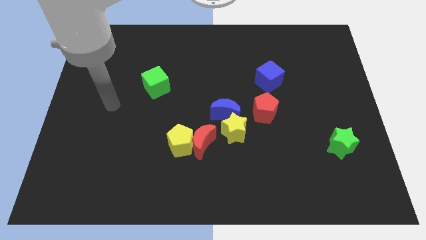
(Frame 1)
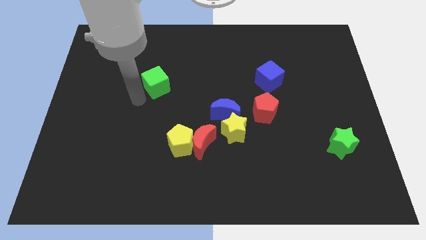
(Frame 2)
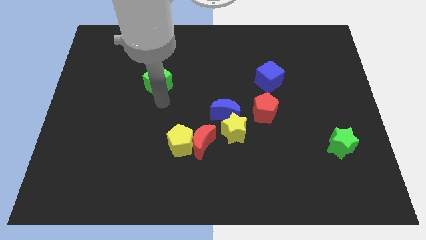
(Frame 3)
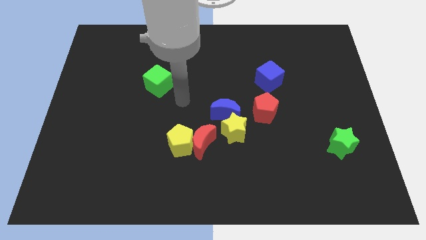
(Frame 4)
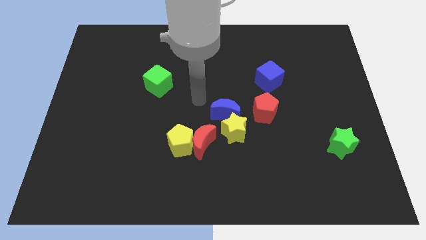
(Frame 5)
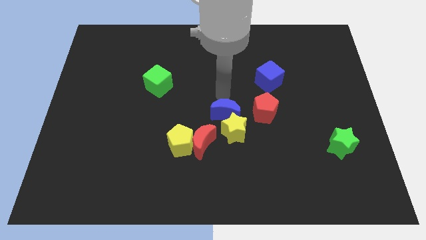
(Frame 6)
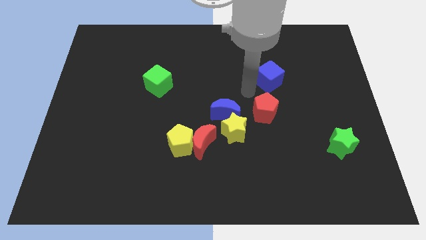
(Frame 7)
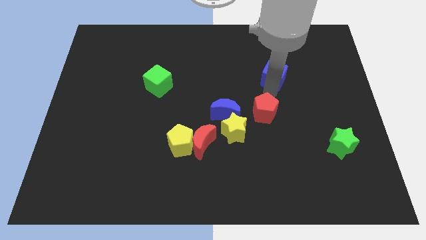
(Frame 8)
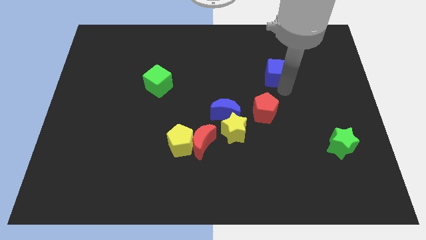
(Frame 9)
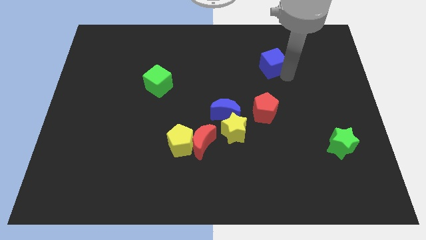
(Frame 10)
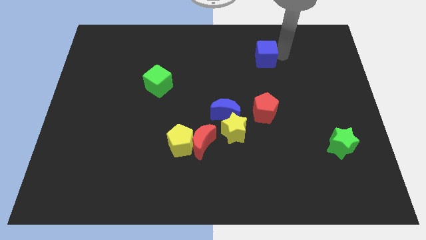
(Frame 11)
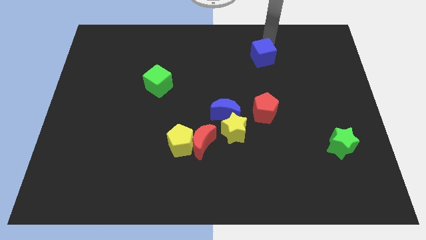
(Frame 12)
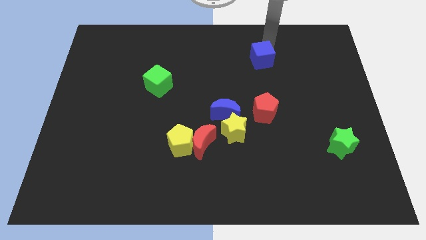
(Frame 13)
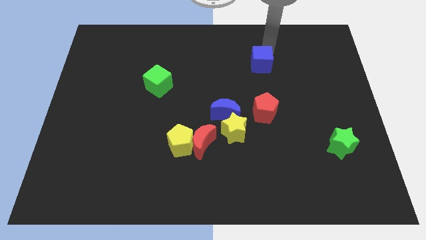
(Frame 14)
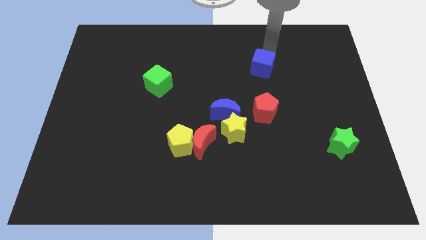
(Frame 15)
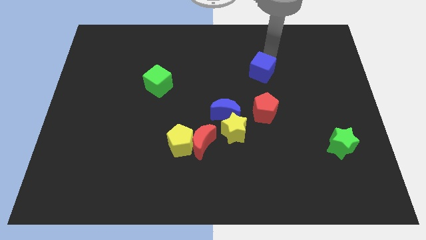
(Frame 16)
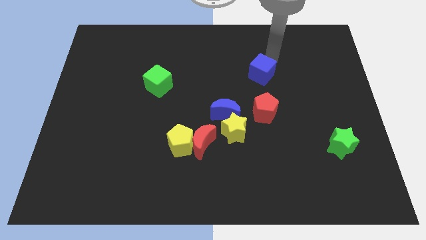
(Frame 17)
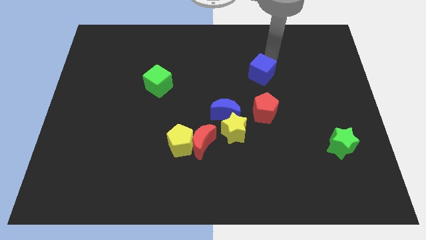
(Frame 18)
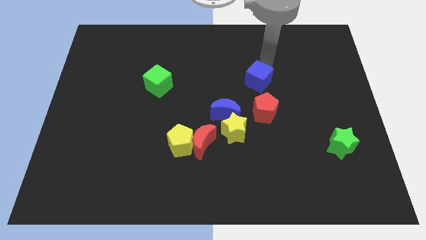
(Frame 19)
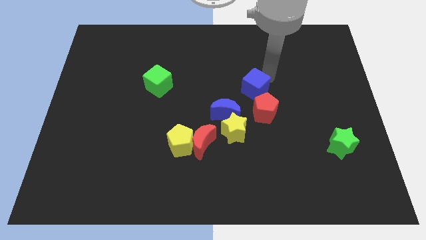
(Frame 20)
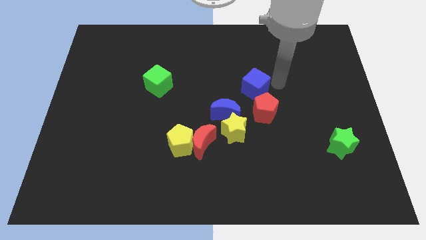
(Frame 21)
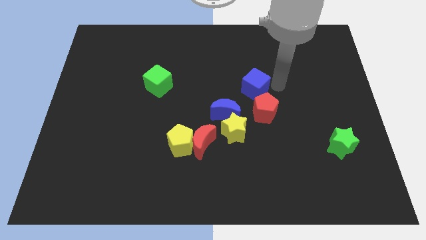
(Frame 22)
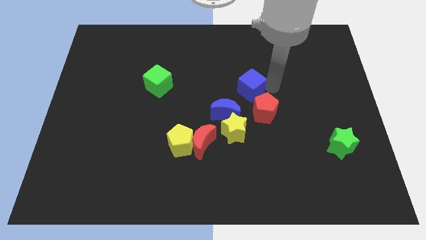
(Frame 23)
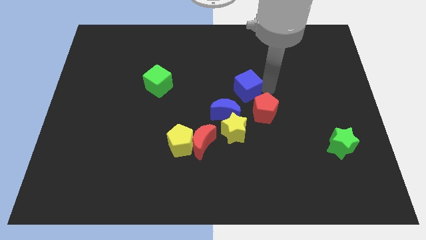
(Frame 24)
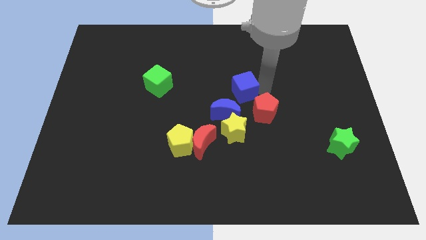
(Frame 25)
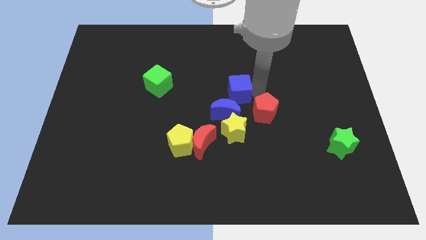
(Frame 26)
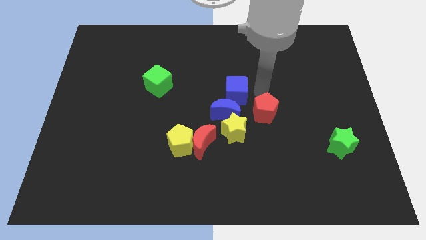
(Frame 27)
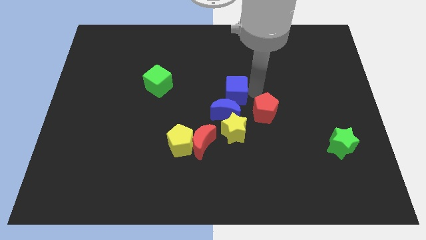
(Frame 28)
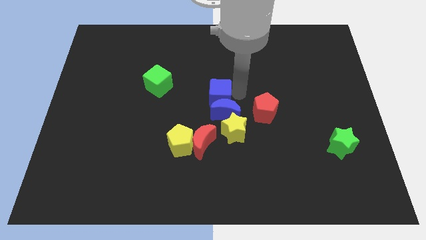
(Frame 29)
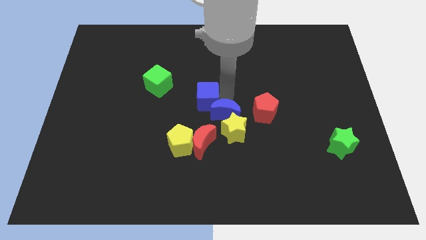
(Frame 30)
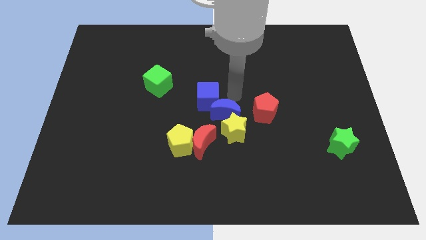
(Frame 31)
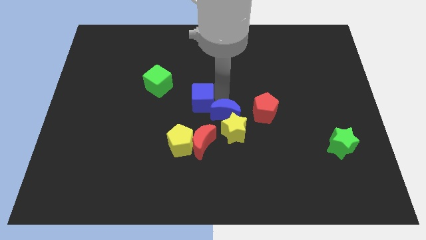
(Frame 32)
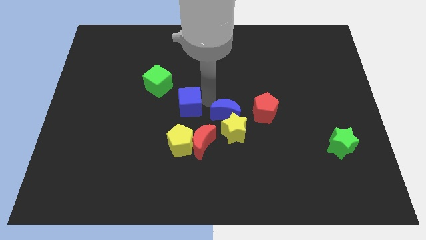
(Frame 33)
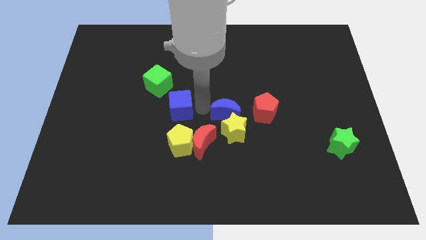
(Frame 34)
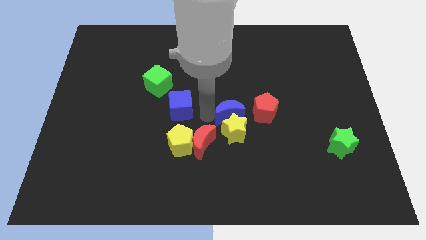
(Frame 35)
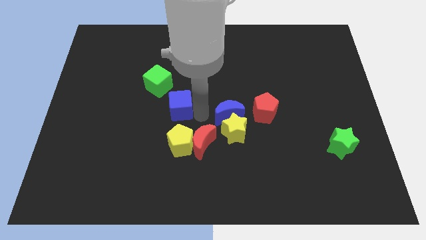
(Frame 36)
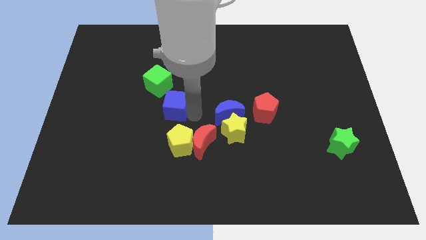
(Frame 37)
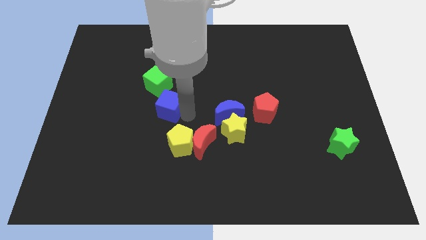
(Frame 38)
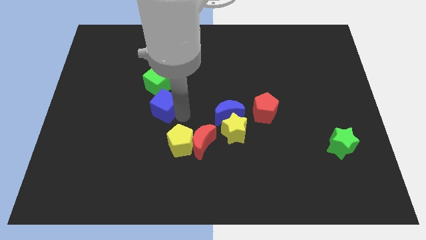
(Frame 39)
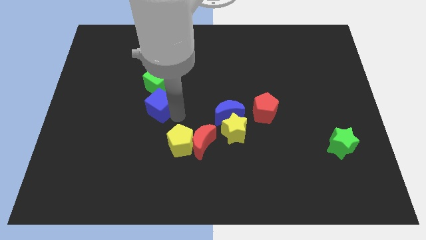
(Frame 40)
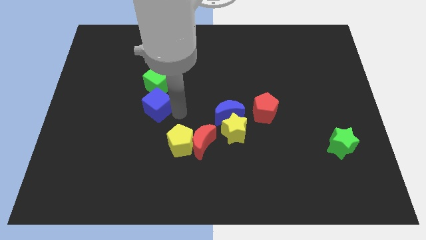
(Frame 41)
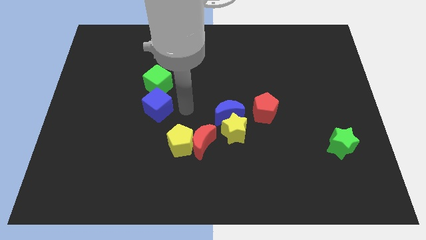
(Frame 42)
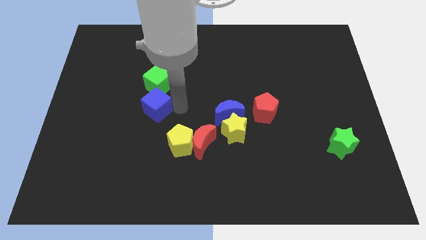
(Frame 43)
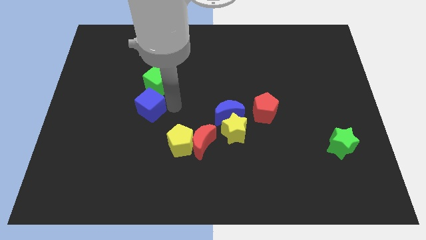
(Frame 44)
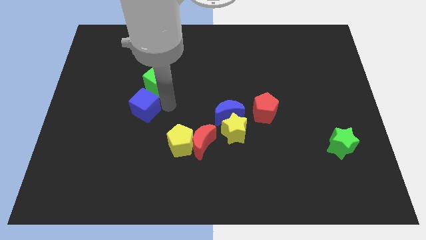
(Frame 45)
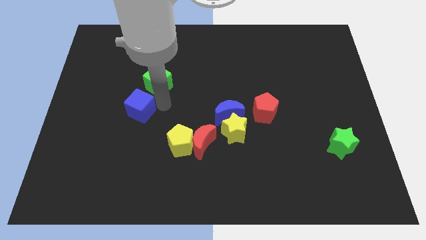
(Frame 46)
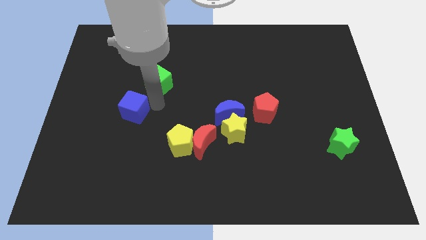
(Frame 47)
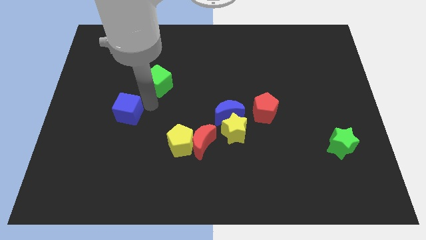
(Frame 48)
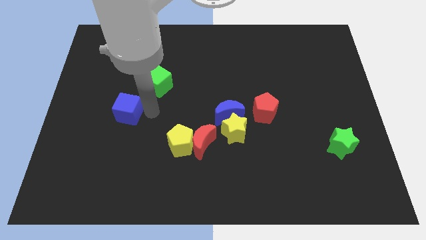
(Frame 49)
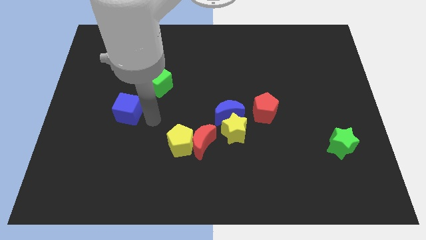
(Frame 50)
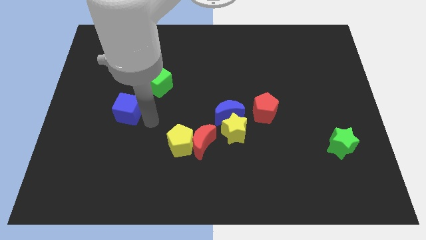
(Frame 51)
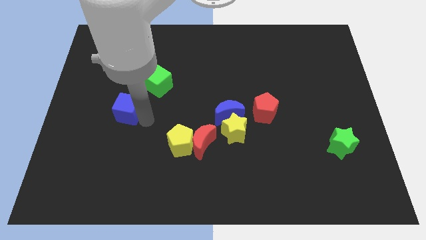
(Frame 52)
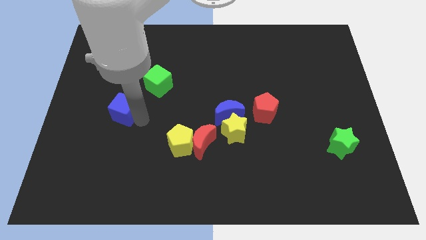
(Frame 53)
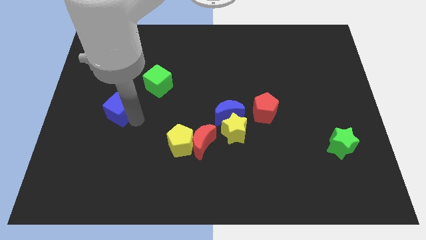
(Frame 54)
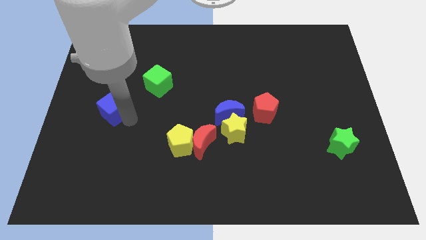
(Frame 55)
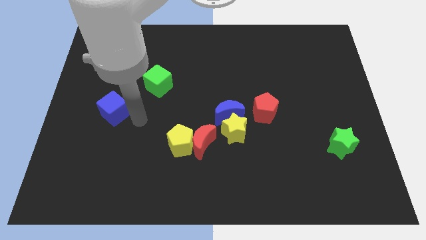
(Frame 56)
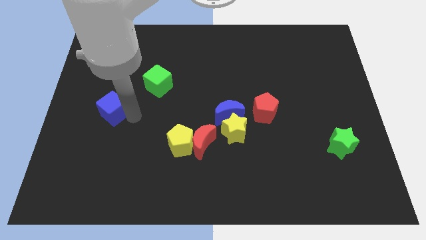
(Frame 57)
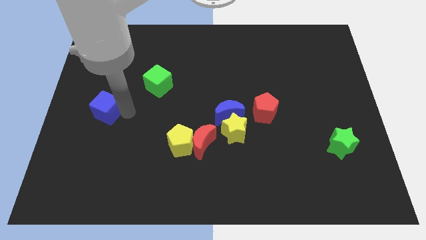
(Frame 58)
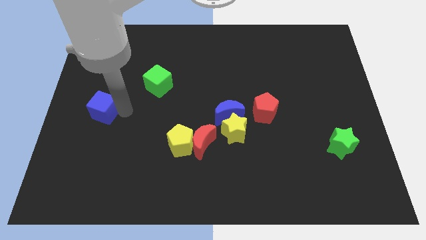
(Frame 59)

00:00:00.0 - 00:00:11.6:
slide the blue cube to the left side

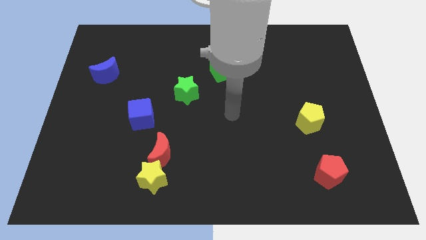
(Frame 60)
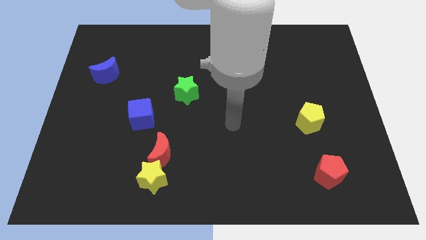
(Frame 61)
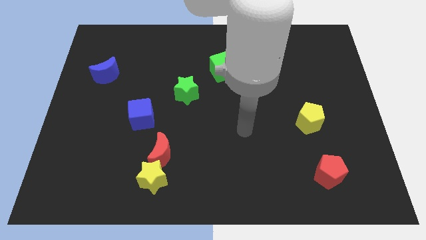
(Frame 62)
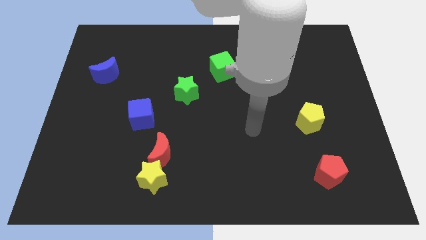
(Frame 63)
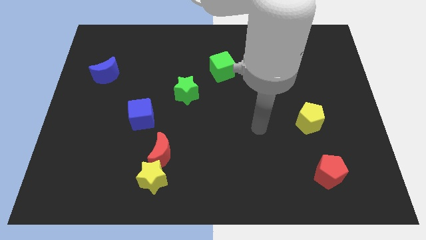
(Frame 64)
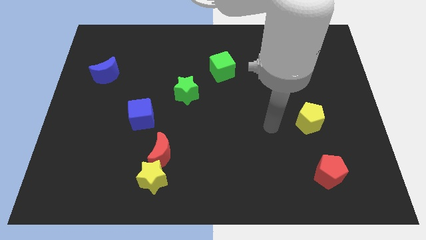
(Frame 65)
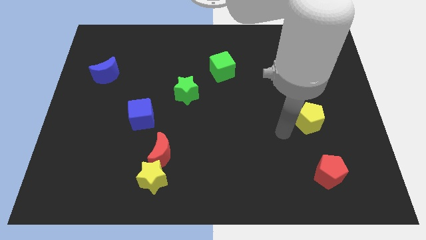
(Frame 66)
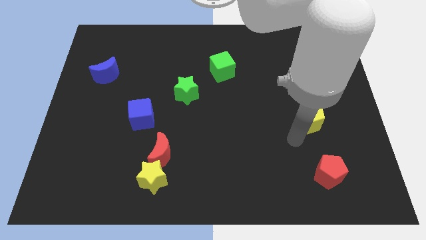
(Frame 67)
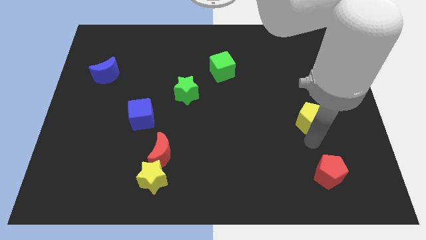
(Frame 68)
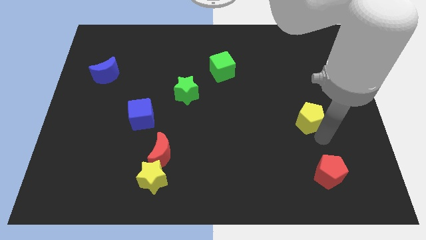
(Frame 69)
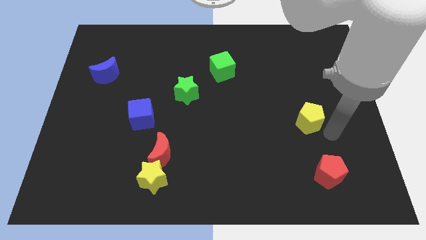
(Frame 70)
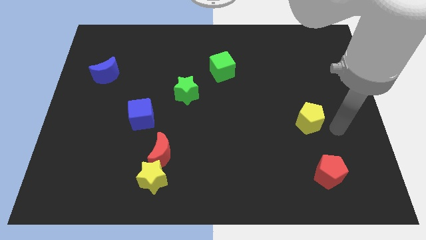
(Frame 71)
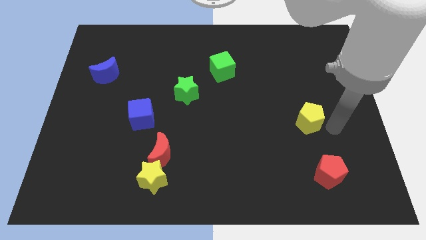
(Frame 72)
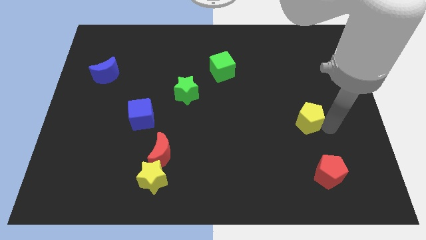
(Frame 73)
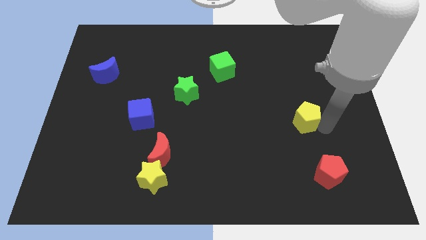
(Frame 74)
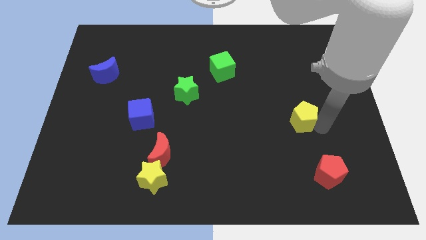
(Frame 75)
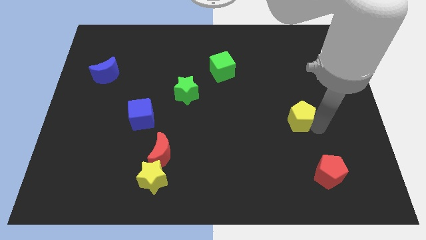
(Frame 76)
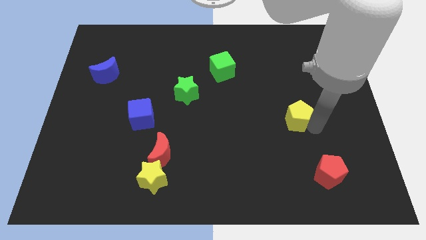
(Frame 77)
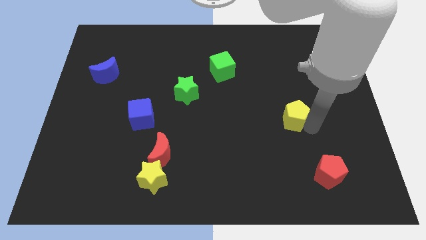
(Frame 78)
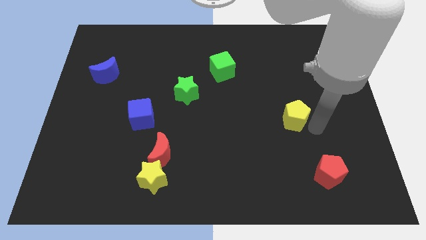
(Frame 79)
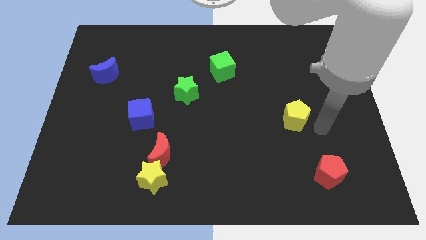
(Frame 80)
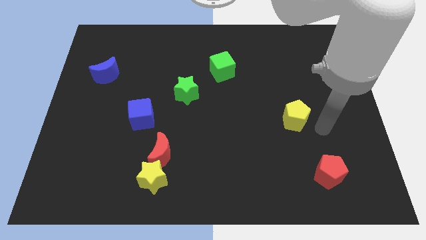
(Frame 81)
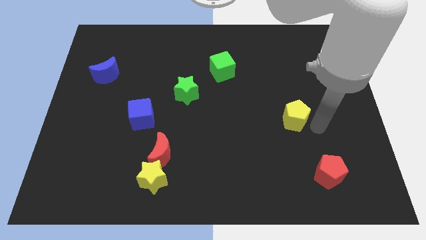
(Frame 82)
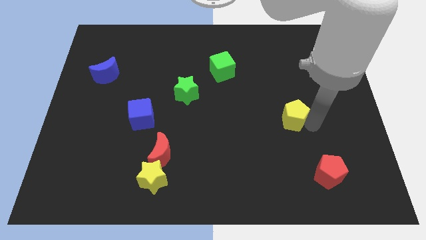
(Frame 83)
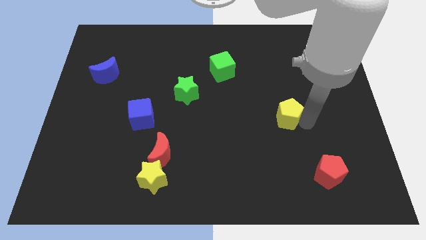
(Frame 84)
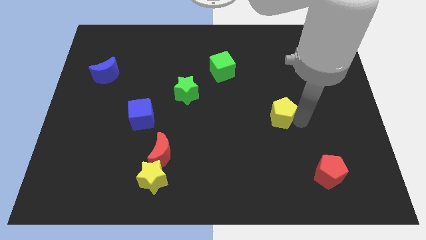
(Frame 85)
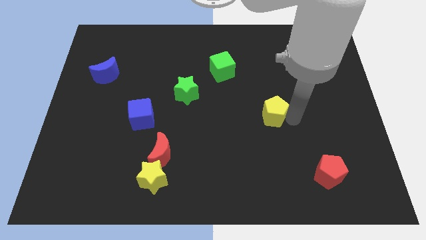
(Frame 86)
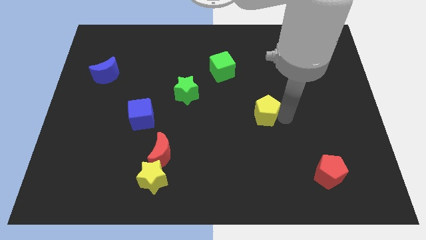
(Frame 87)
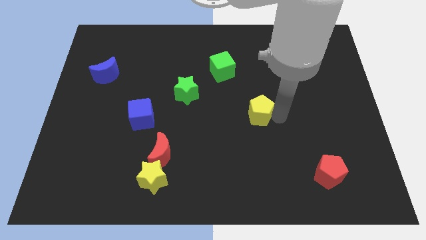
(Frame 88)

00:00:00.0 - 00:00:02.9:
put the yellow pentagon to the center
